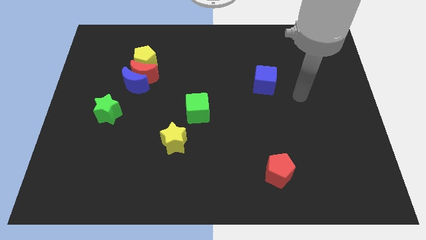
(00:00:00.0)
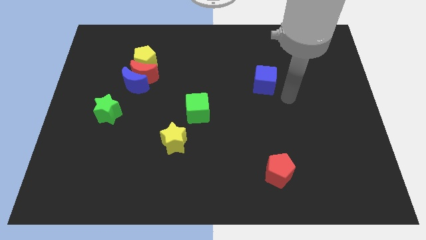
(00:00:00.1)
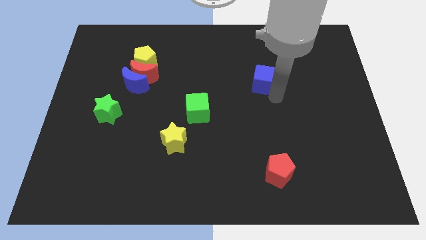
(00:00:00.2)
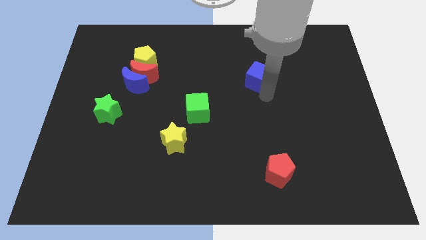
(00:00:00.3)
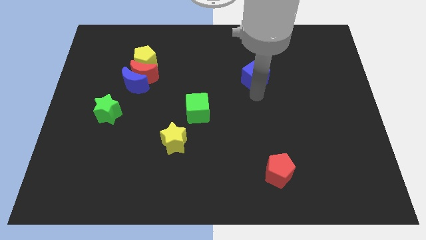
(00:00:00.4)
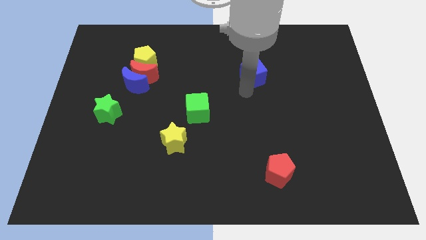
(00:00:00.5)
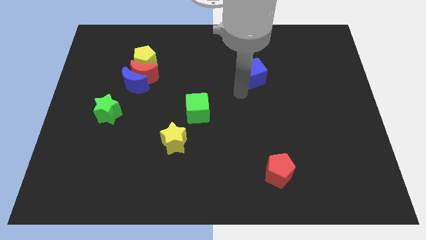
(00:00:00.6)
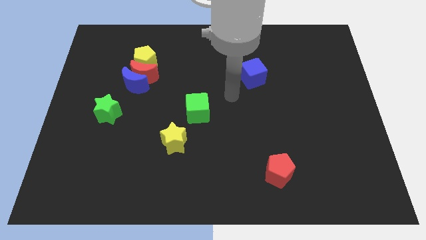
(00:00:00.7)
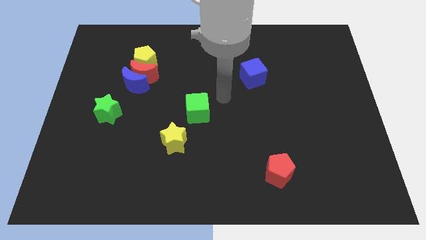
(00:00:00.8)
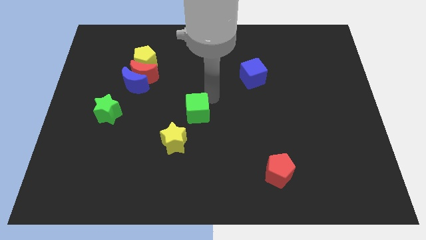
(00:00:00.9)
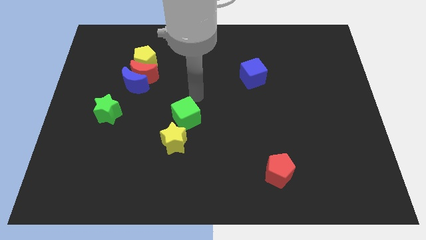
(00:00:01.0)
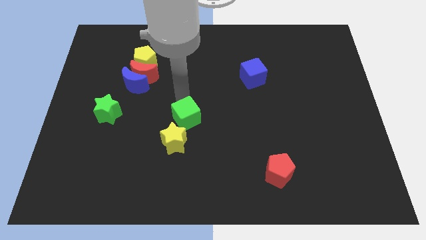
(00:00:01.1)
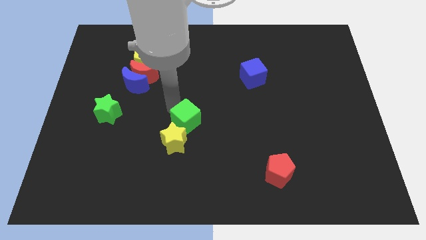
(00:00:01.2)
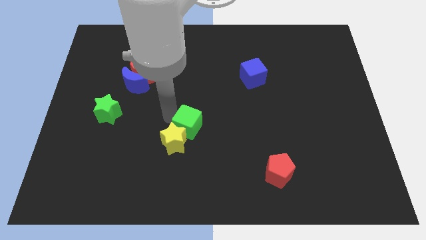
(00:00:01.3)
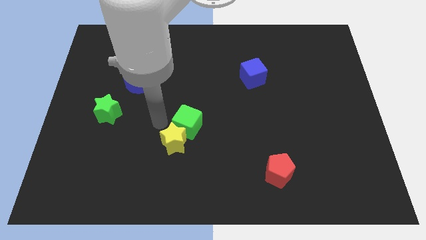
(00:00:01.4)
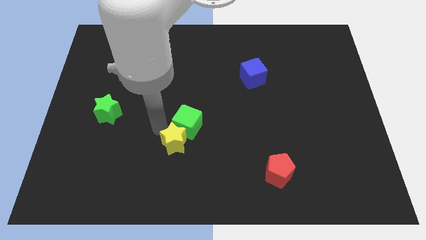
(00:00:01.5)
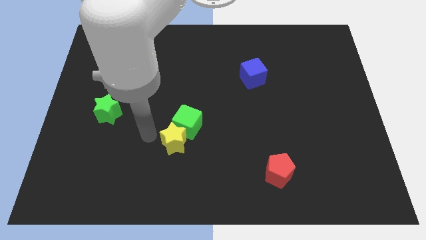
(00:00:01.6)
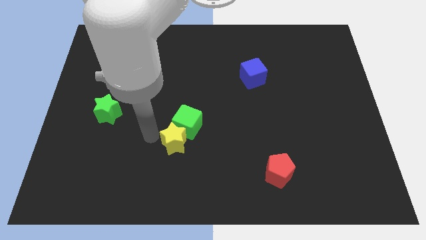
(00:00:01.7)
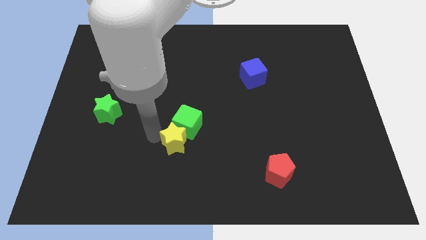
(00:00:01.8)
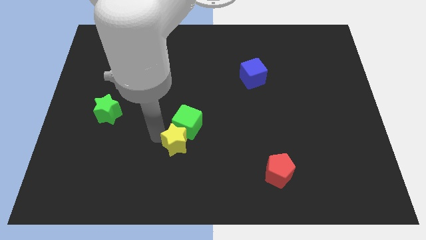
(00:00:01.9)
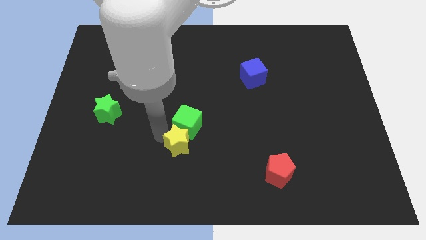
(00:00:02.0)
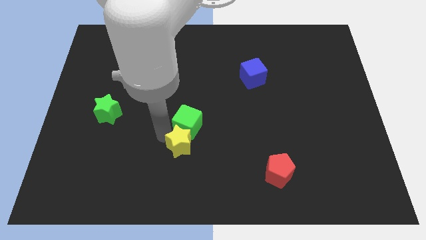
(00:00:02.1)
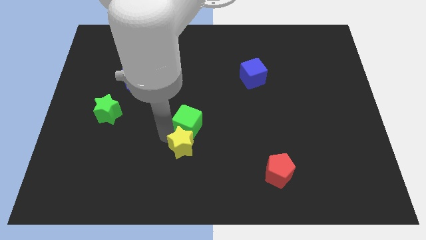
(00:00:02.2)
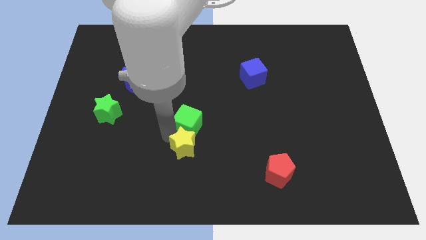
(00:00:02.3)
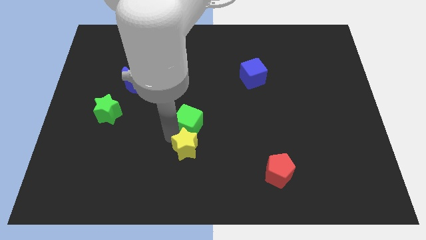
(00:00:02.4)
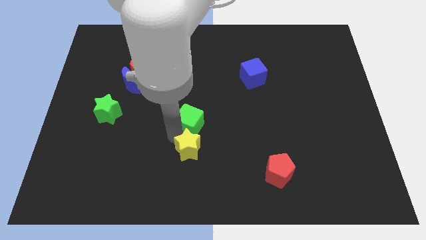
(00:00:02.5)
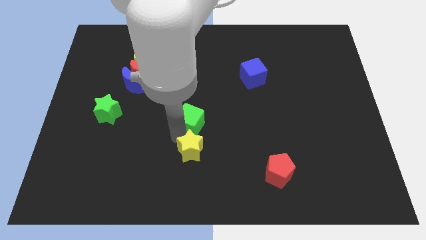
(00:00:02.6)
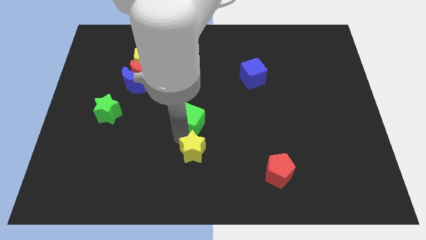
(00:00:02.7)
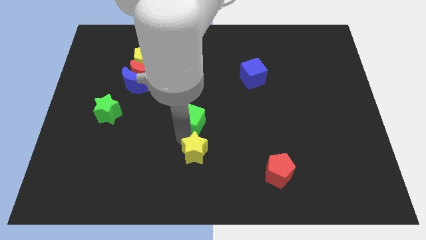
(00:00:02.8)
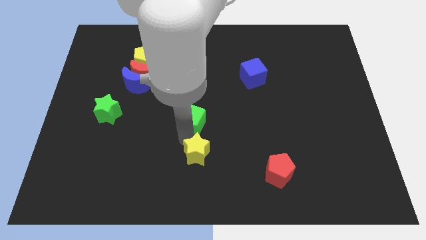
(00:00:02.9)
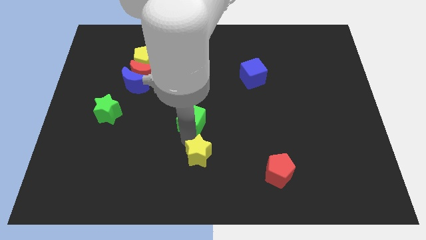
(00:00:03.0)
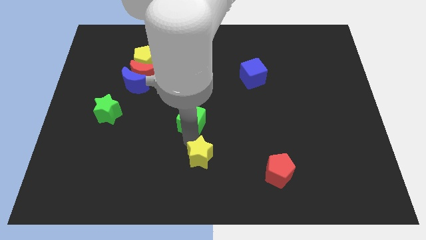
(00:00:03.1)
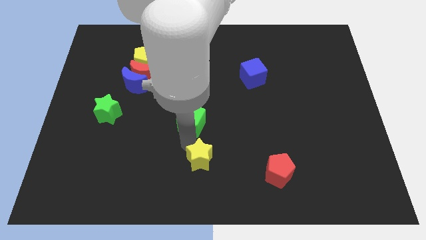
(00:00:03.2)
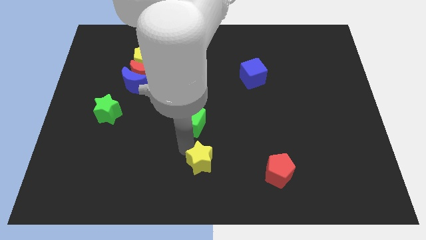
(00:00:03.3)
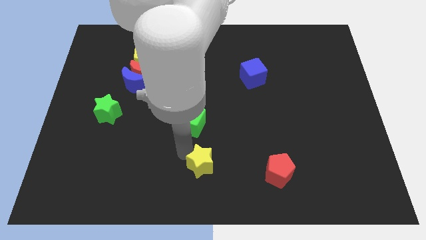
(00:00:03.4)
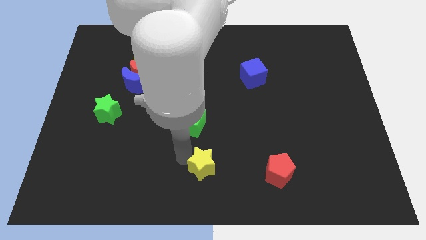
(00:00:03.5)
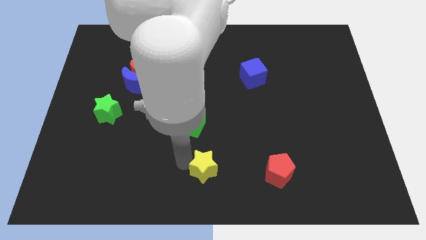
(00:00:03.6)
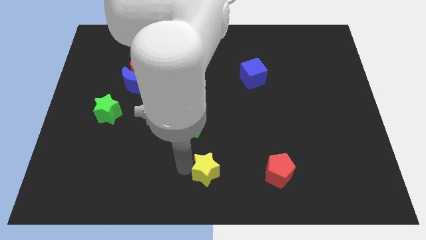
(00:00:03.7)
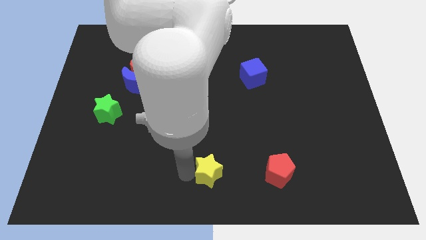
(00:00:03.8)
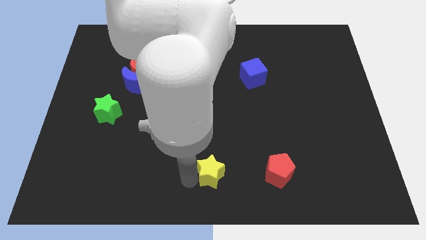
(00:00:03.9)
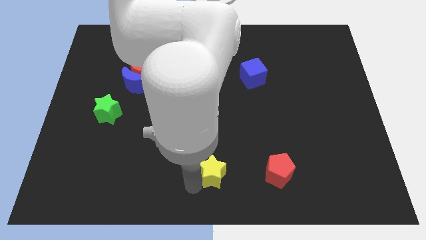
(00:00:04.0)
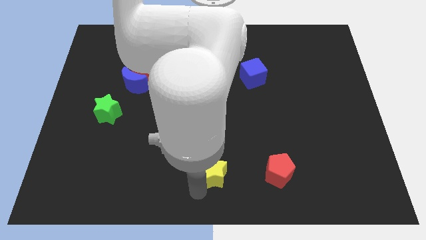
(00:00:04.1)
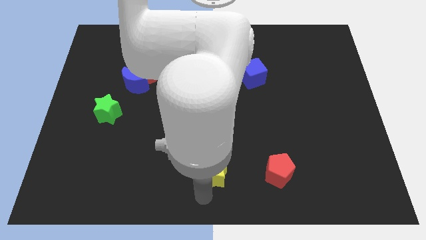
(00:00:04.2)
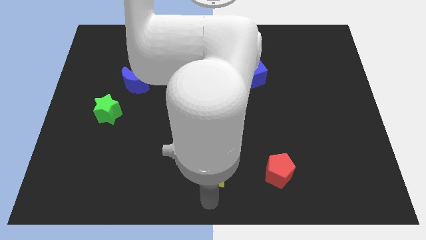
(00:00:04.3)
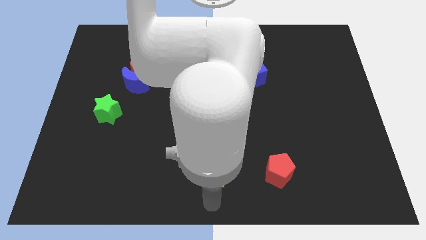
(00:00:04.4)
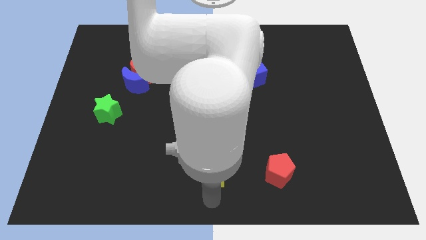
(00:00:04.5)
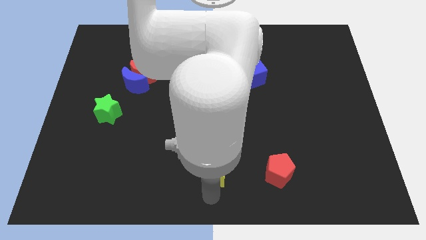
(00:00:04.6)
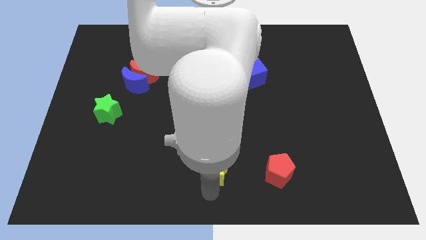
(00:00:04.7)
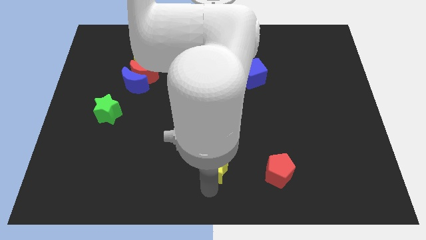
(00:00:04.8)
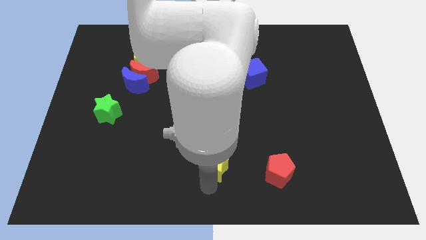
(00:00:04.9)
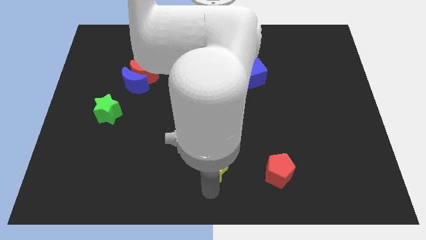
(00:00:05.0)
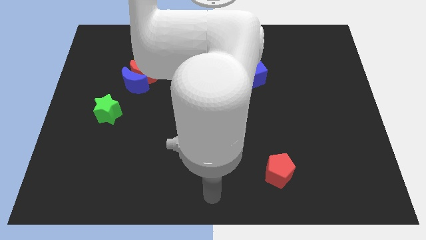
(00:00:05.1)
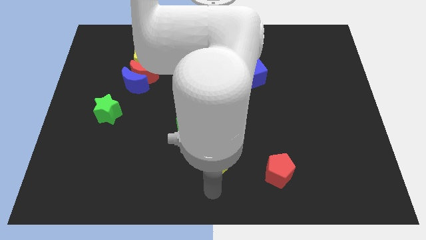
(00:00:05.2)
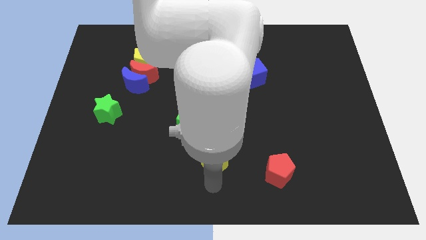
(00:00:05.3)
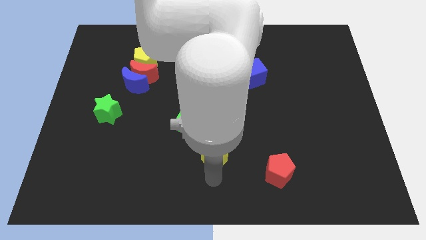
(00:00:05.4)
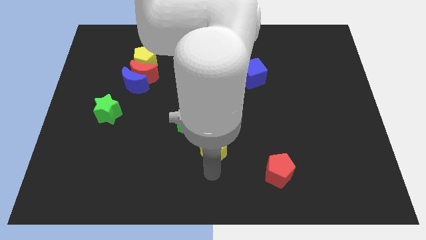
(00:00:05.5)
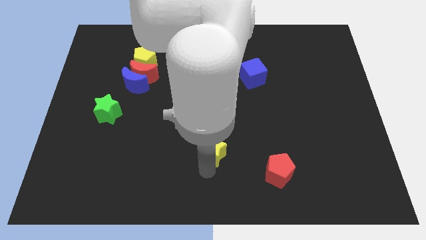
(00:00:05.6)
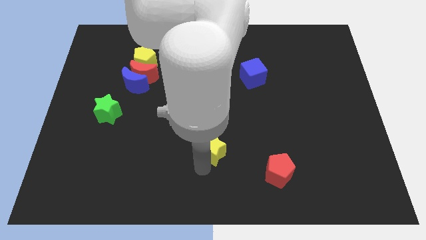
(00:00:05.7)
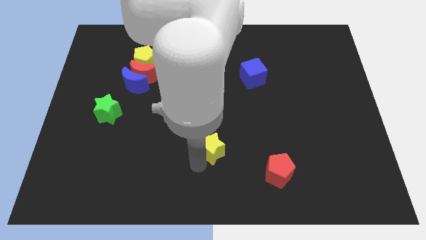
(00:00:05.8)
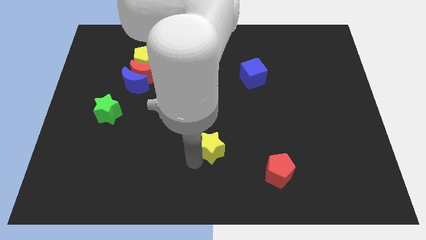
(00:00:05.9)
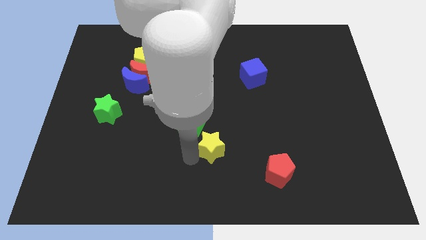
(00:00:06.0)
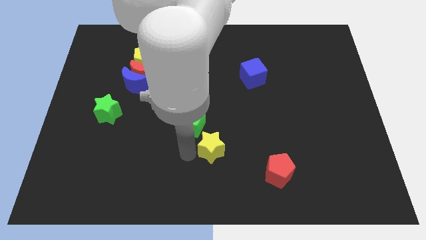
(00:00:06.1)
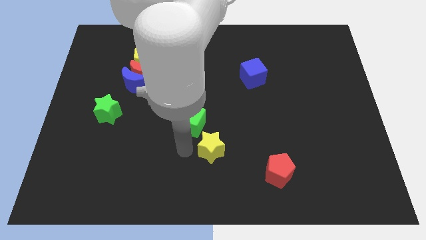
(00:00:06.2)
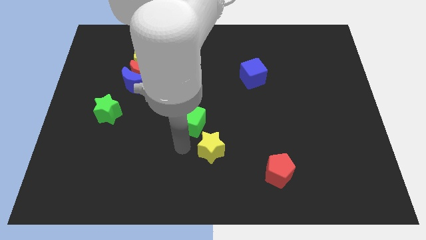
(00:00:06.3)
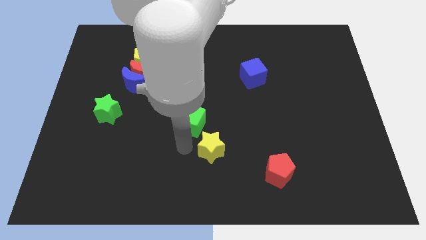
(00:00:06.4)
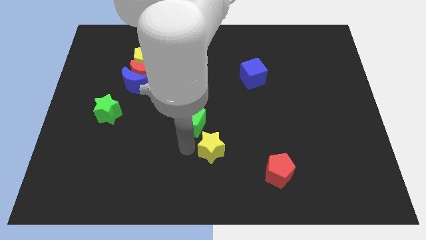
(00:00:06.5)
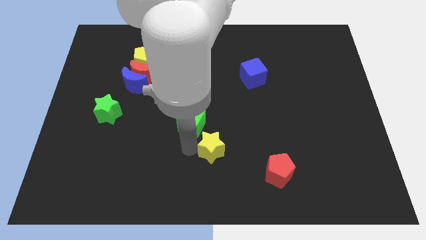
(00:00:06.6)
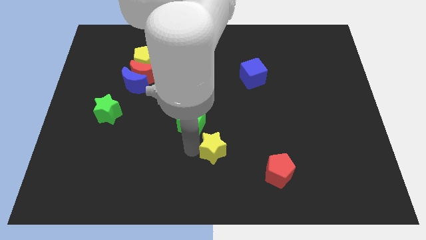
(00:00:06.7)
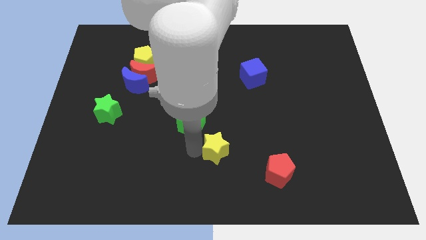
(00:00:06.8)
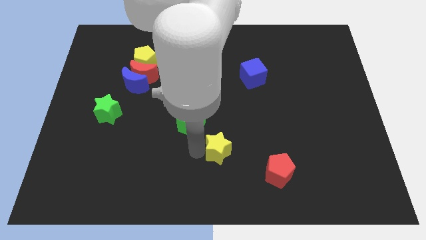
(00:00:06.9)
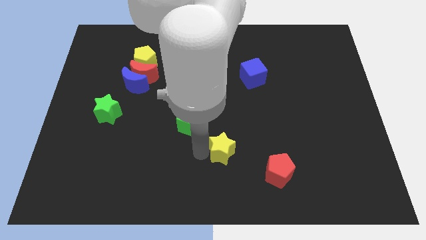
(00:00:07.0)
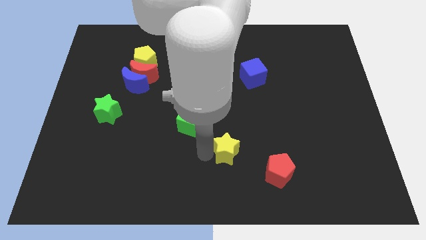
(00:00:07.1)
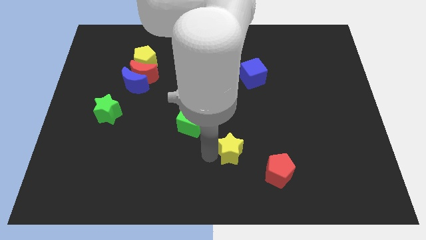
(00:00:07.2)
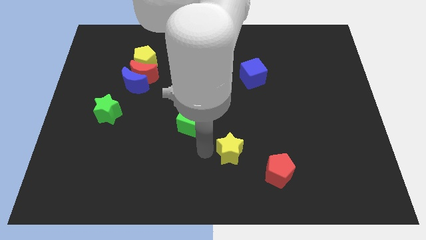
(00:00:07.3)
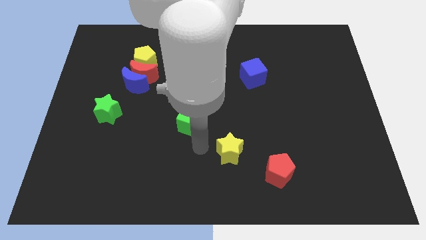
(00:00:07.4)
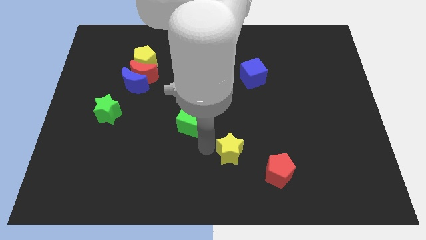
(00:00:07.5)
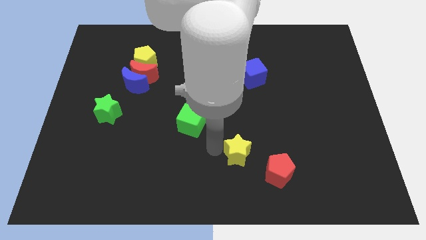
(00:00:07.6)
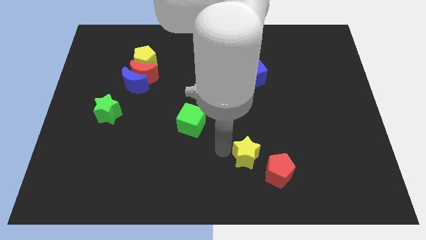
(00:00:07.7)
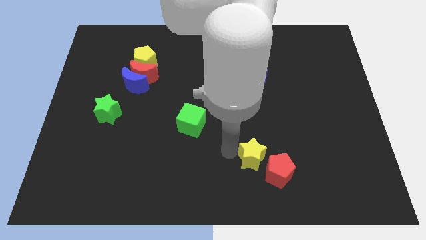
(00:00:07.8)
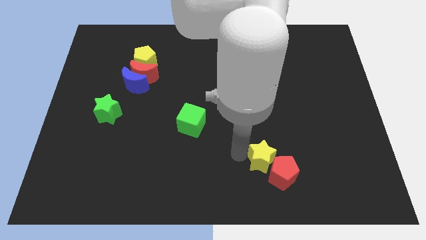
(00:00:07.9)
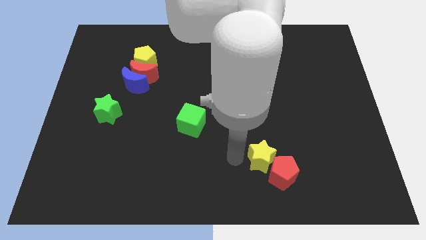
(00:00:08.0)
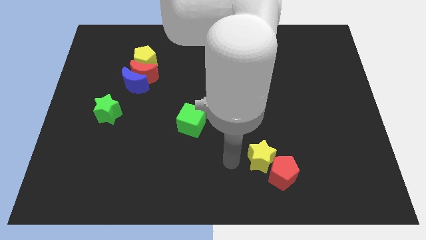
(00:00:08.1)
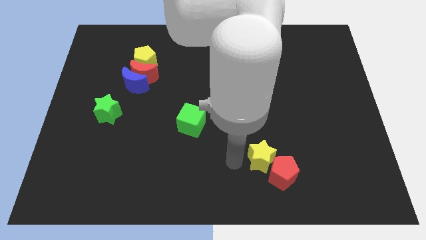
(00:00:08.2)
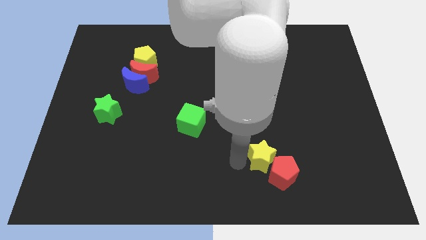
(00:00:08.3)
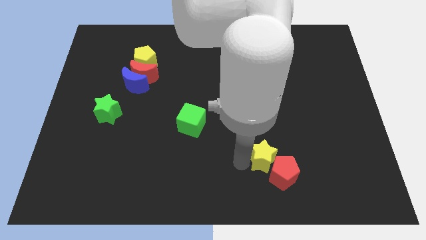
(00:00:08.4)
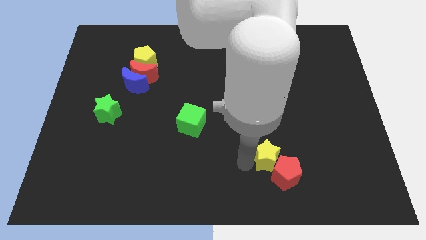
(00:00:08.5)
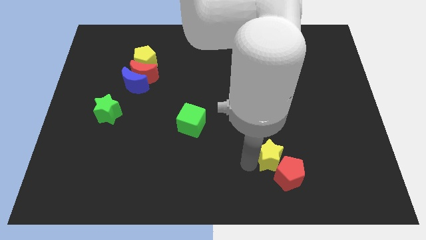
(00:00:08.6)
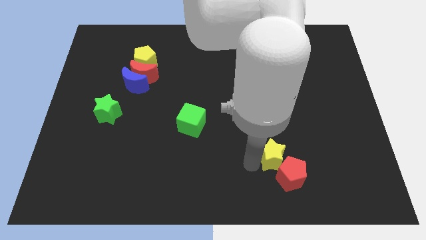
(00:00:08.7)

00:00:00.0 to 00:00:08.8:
move the yellow star to the right
